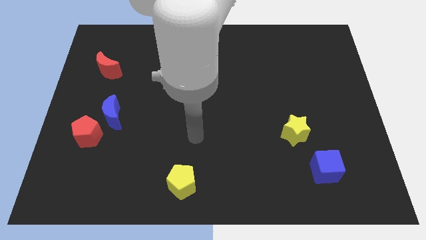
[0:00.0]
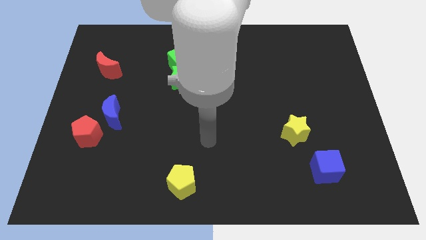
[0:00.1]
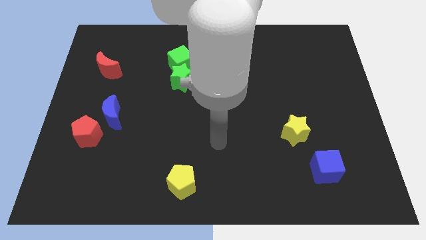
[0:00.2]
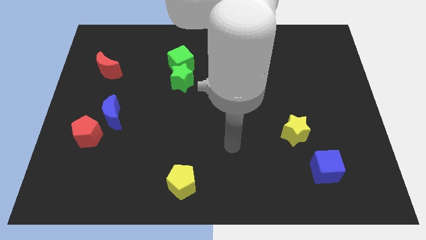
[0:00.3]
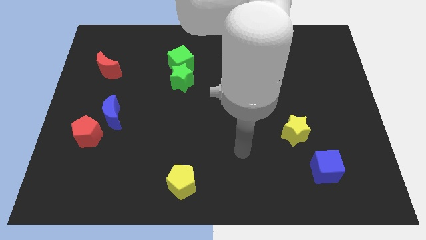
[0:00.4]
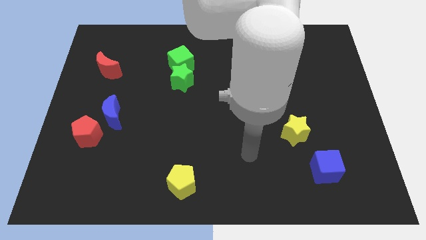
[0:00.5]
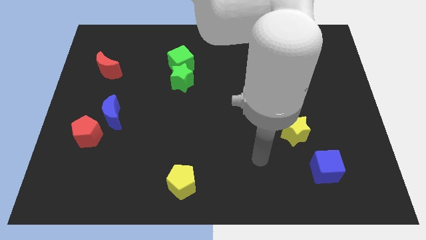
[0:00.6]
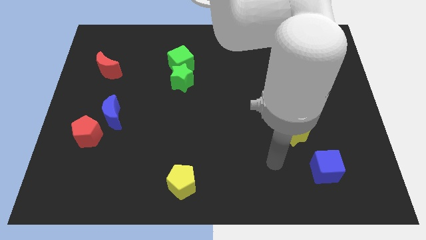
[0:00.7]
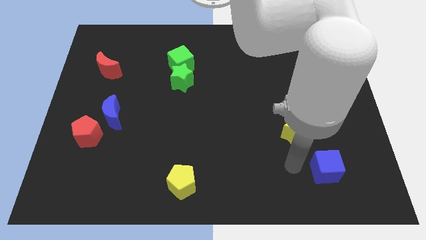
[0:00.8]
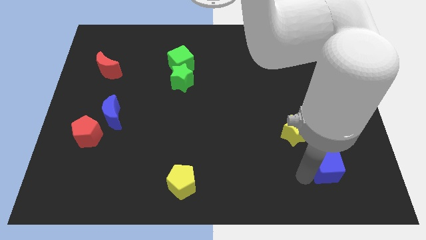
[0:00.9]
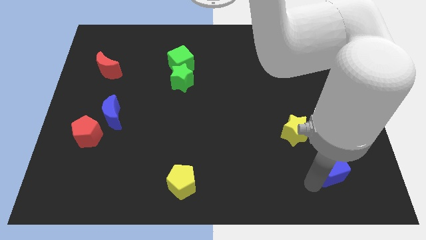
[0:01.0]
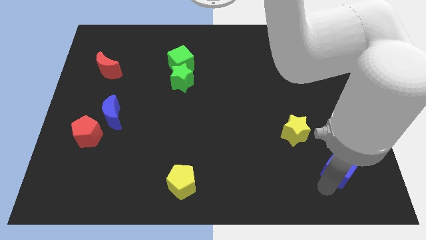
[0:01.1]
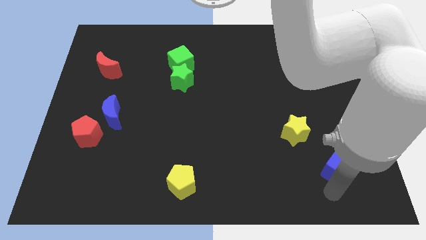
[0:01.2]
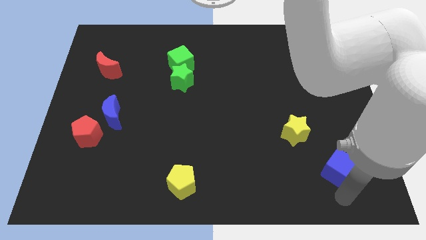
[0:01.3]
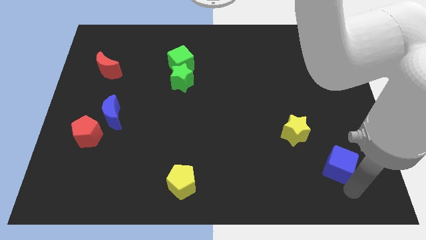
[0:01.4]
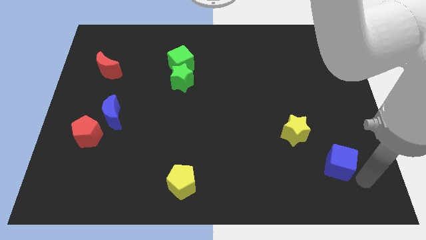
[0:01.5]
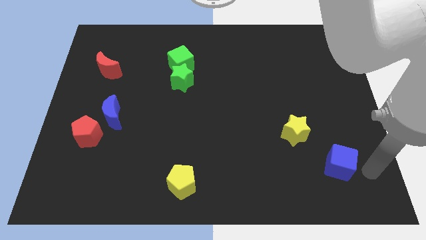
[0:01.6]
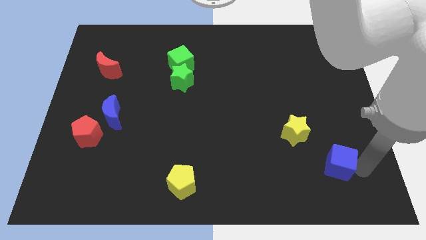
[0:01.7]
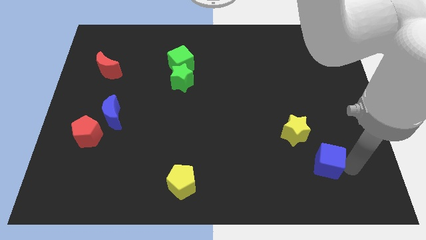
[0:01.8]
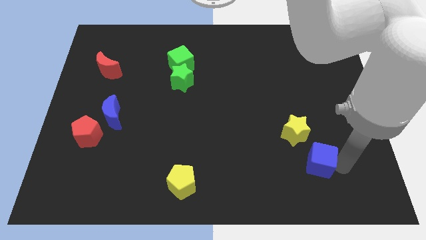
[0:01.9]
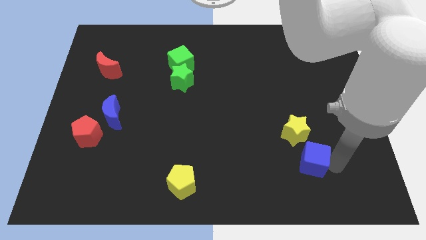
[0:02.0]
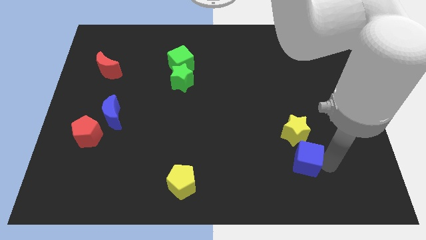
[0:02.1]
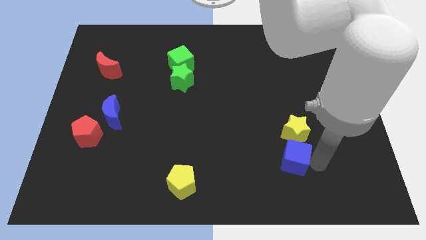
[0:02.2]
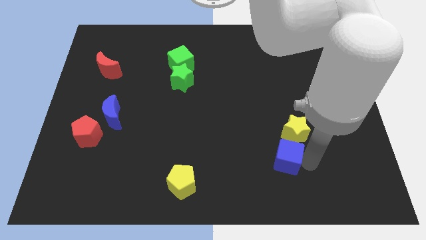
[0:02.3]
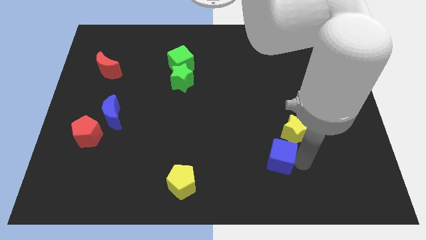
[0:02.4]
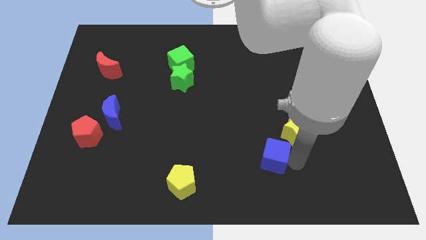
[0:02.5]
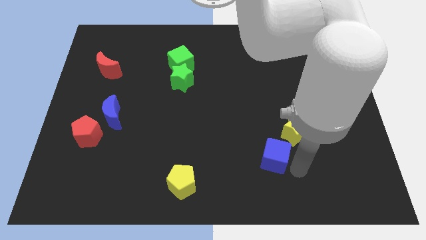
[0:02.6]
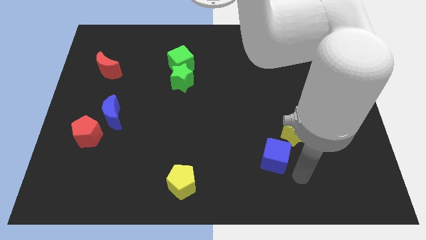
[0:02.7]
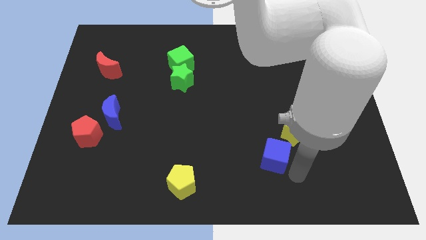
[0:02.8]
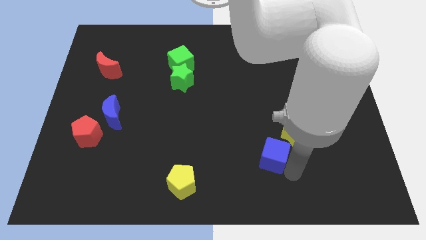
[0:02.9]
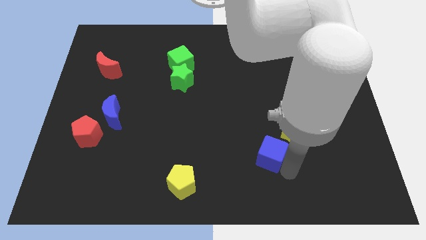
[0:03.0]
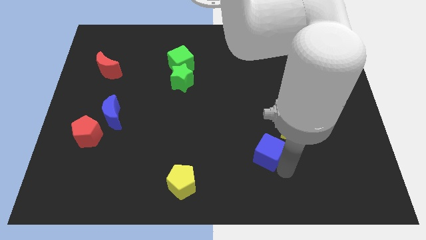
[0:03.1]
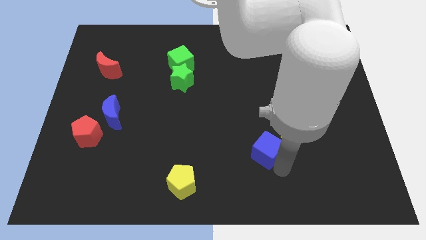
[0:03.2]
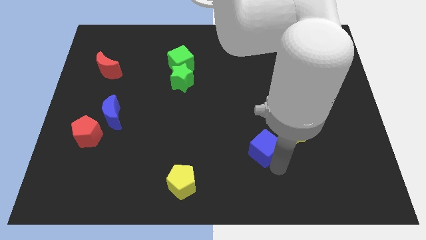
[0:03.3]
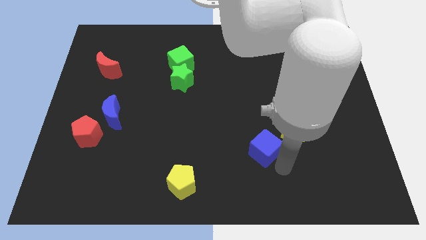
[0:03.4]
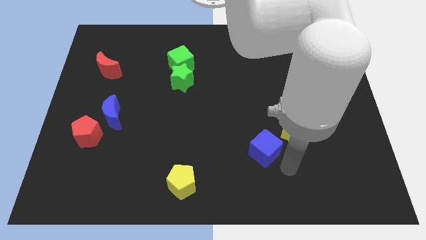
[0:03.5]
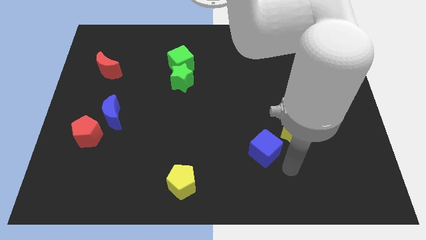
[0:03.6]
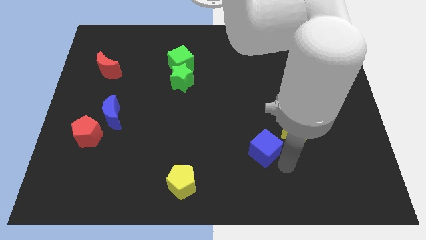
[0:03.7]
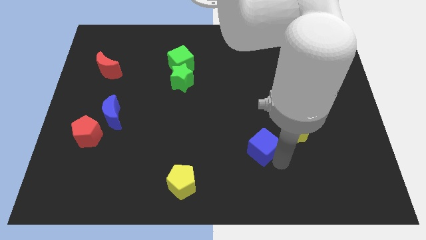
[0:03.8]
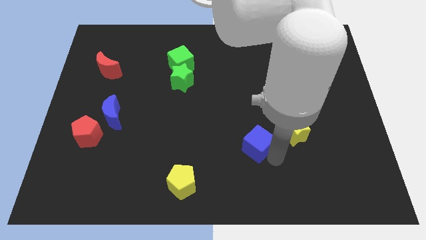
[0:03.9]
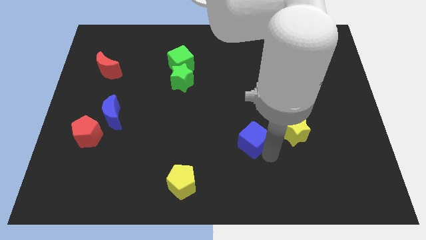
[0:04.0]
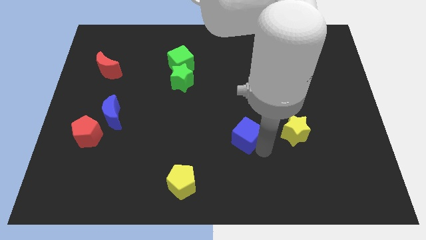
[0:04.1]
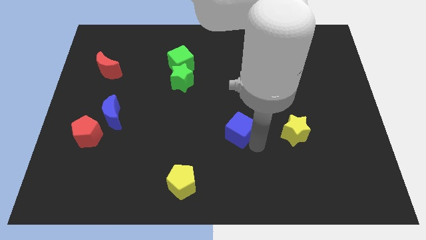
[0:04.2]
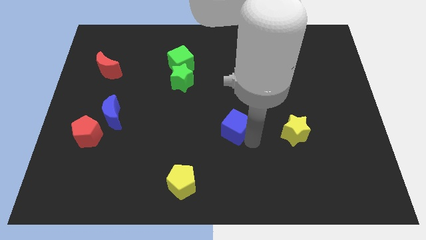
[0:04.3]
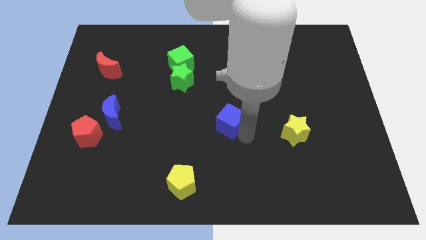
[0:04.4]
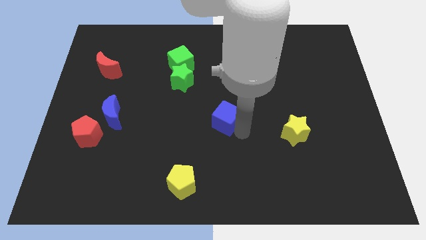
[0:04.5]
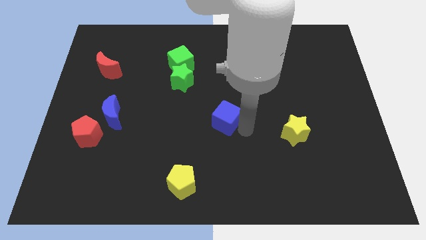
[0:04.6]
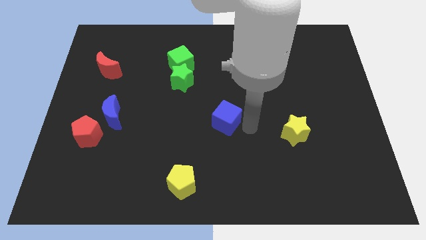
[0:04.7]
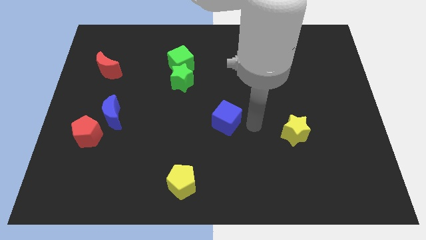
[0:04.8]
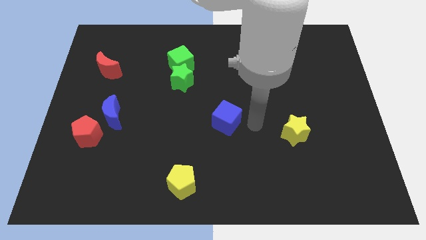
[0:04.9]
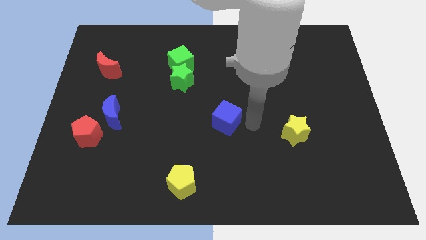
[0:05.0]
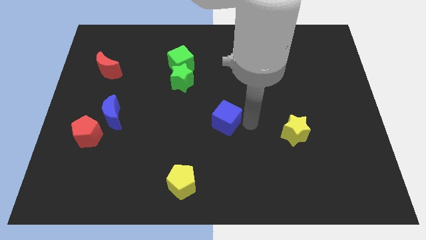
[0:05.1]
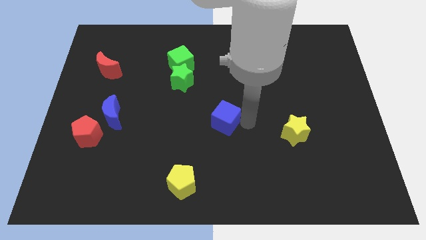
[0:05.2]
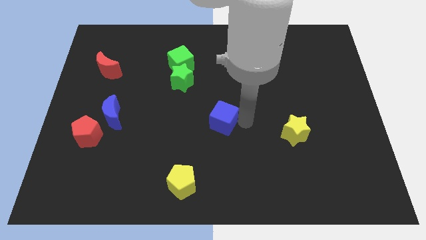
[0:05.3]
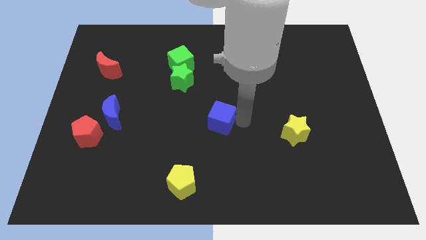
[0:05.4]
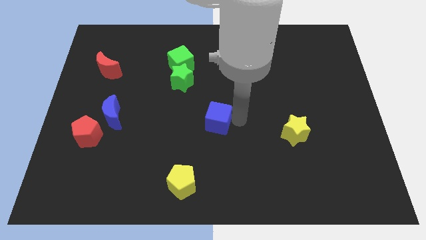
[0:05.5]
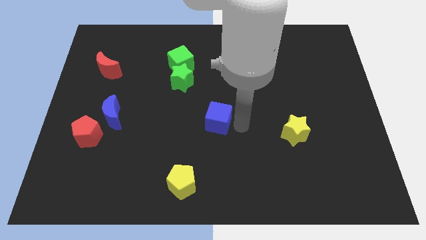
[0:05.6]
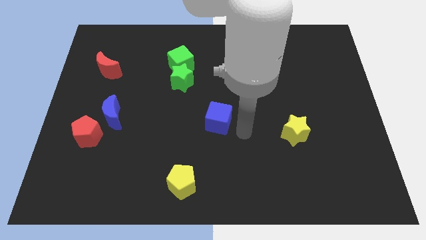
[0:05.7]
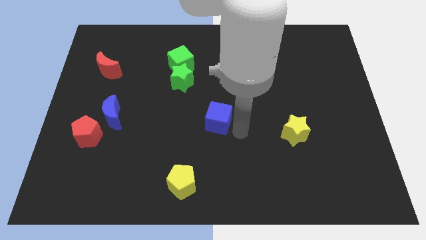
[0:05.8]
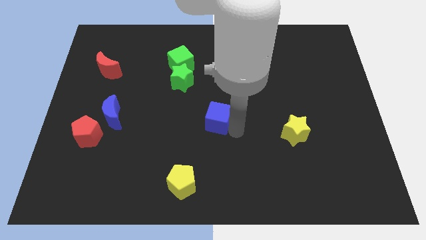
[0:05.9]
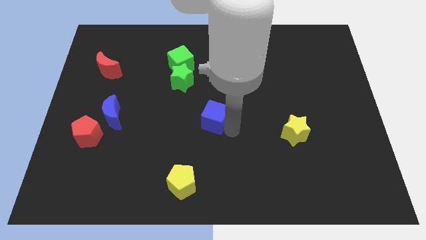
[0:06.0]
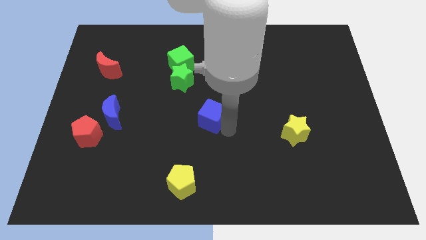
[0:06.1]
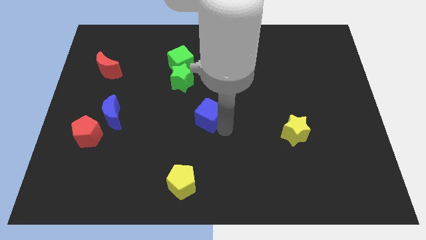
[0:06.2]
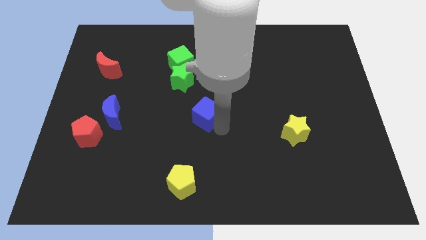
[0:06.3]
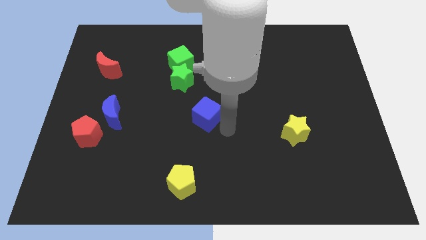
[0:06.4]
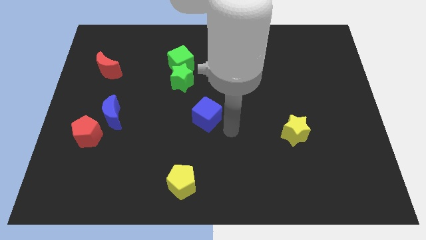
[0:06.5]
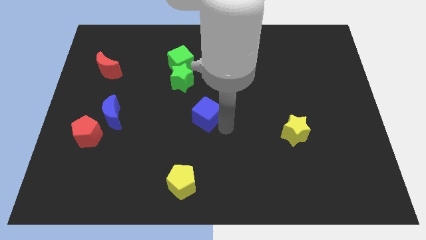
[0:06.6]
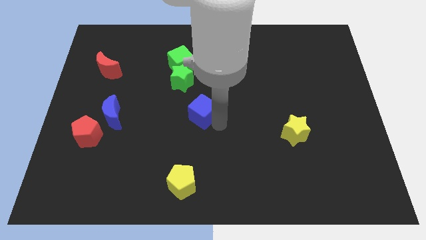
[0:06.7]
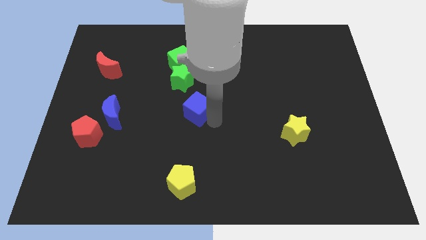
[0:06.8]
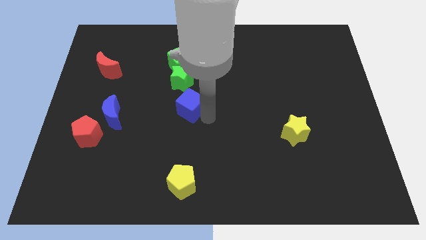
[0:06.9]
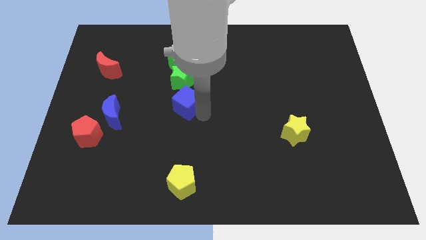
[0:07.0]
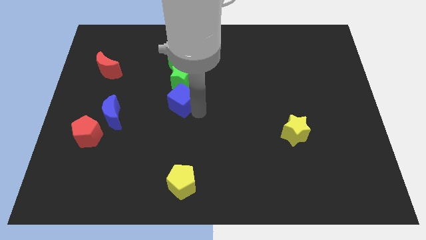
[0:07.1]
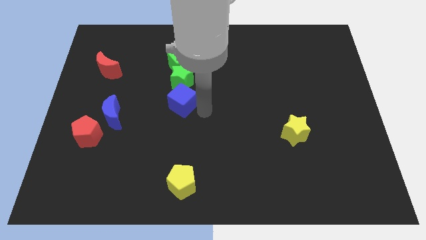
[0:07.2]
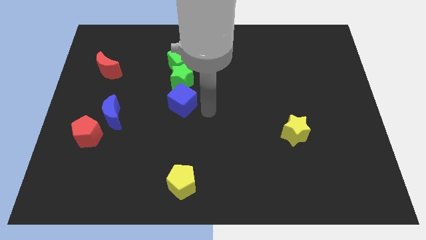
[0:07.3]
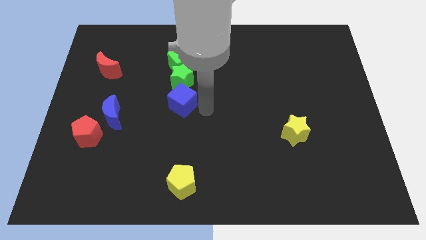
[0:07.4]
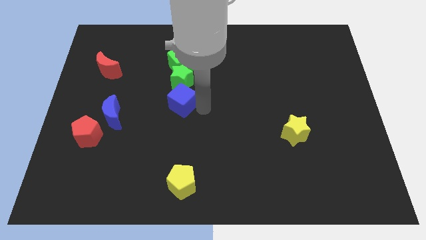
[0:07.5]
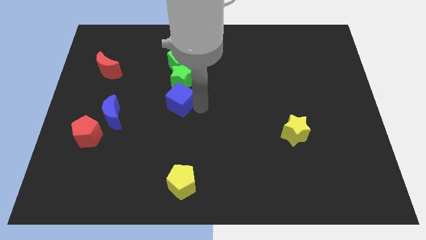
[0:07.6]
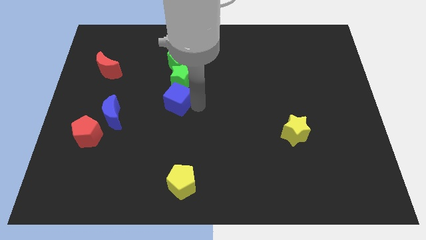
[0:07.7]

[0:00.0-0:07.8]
move the blue cube to the bottom left of the green star
